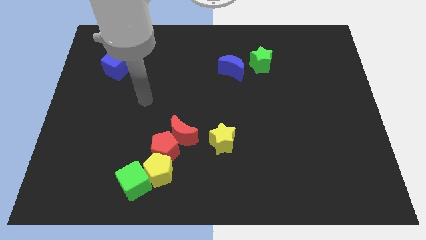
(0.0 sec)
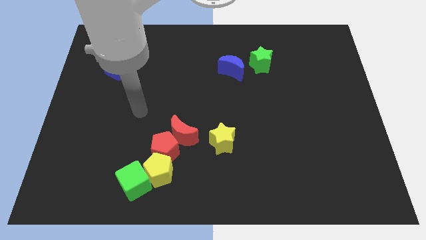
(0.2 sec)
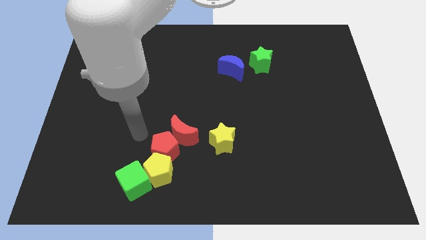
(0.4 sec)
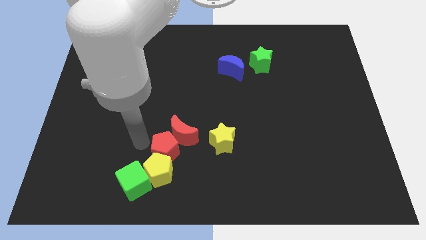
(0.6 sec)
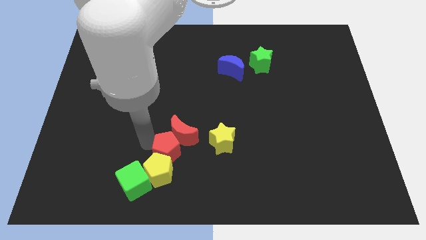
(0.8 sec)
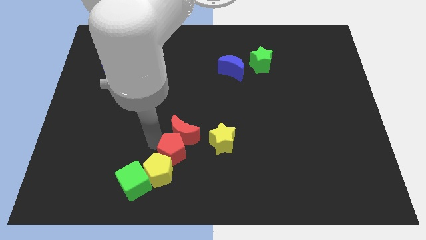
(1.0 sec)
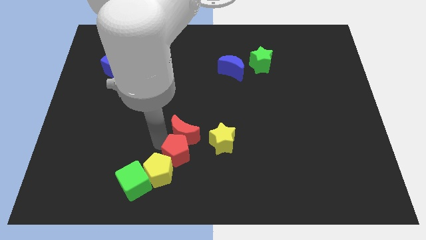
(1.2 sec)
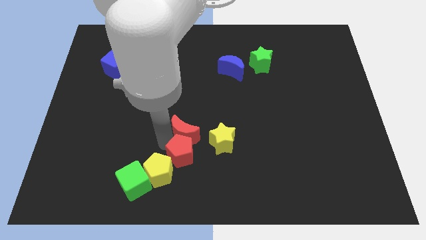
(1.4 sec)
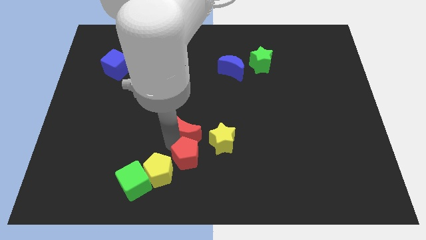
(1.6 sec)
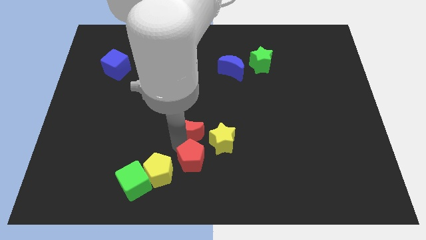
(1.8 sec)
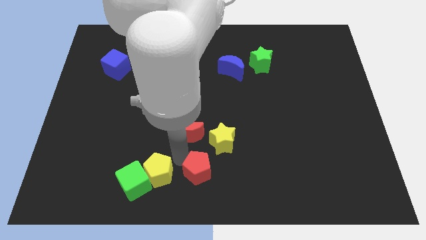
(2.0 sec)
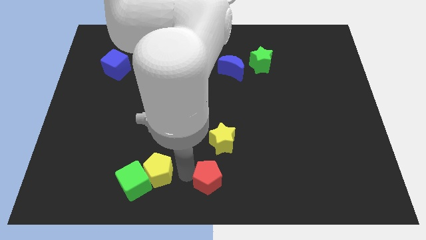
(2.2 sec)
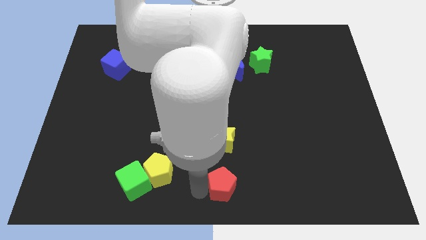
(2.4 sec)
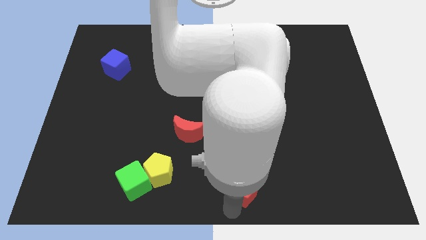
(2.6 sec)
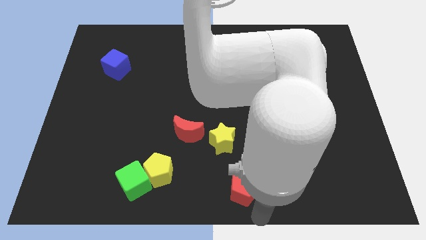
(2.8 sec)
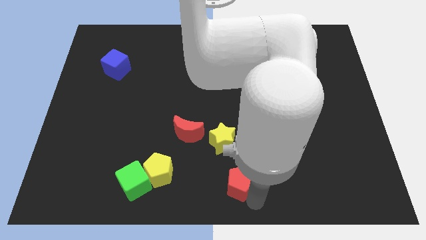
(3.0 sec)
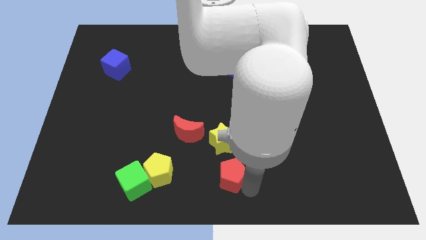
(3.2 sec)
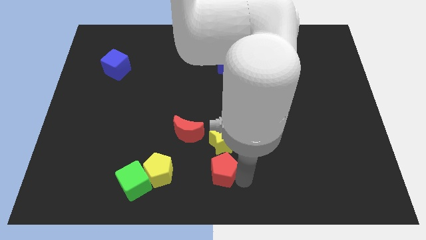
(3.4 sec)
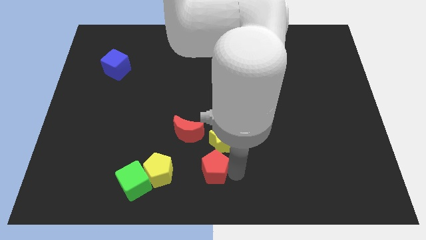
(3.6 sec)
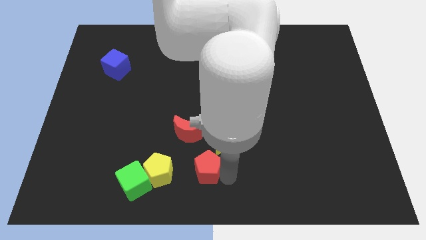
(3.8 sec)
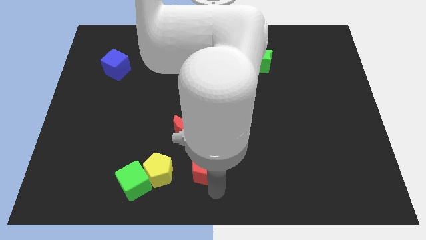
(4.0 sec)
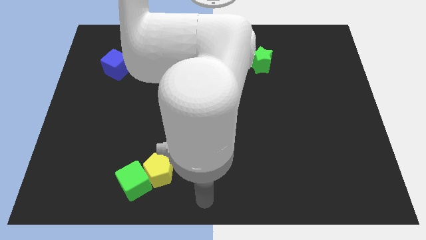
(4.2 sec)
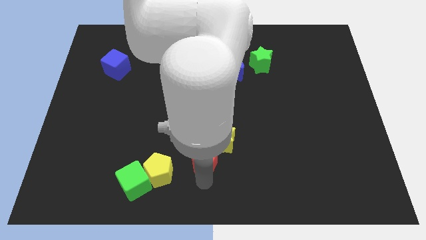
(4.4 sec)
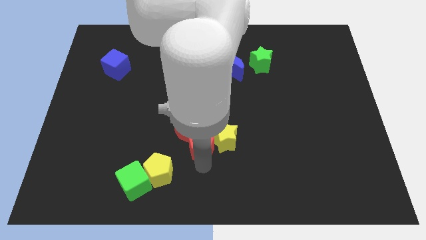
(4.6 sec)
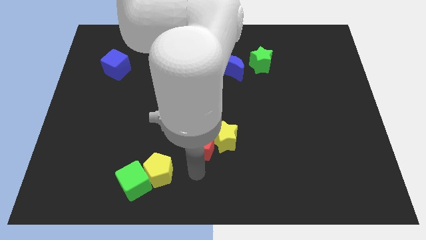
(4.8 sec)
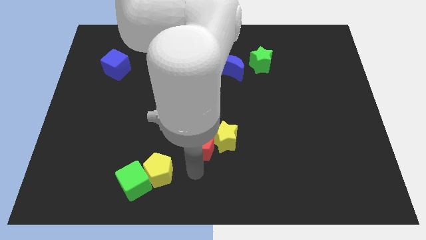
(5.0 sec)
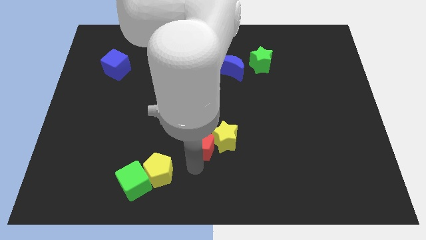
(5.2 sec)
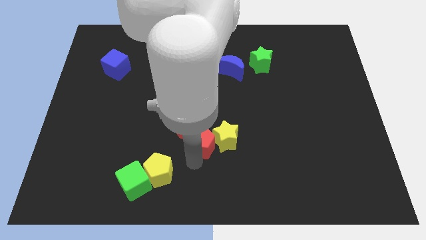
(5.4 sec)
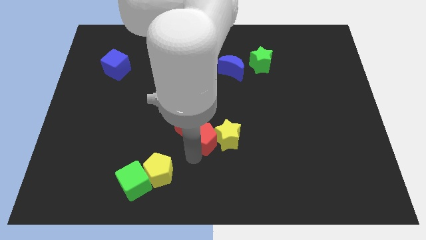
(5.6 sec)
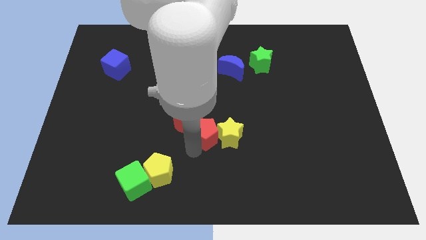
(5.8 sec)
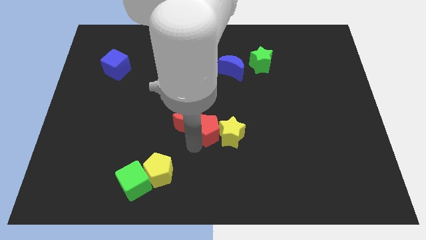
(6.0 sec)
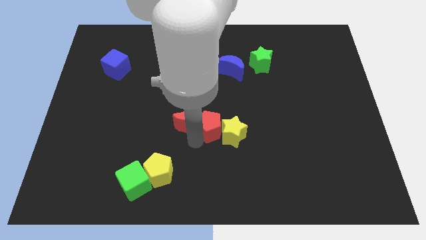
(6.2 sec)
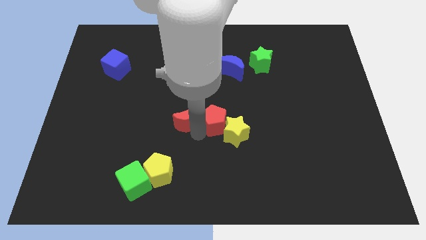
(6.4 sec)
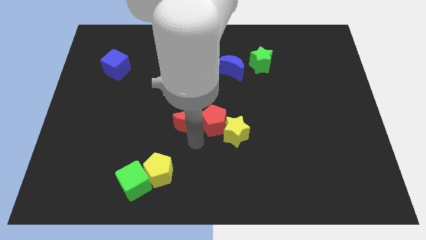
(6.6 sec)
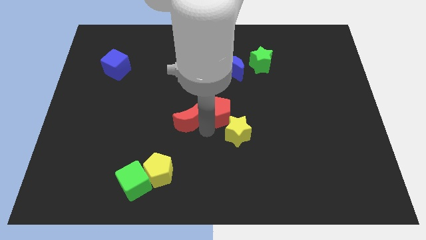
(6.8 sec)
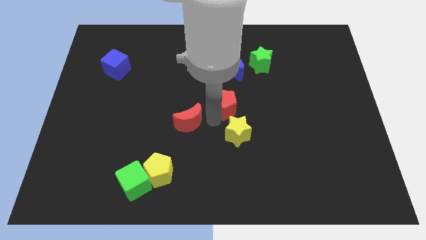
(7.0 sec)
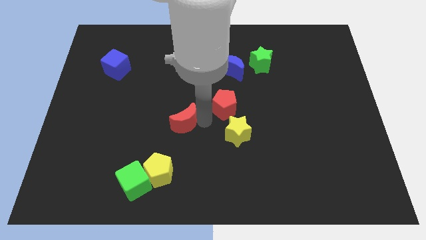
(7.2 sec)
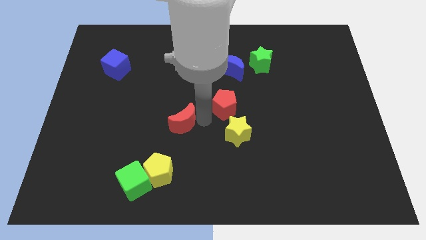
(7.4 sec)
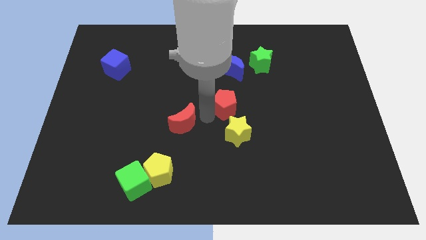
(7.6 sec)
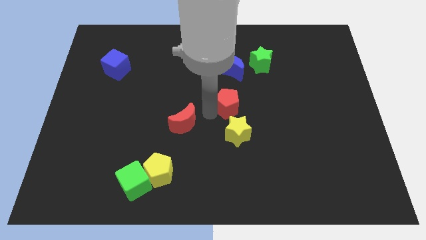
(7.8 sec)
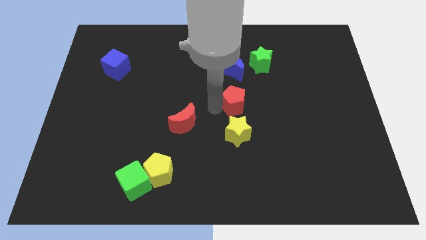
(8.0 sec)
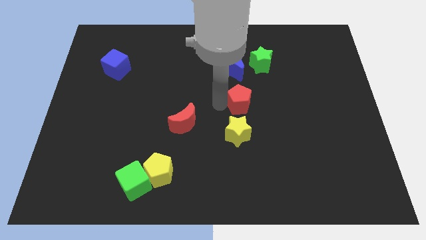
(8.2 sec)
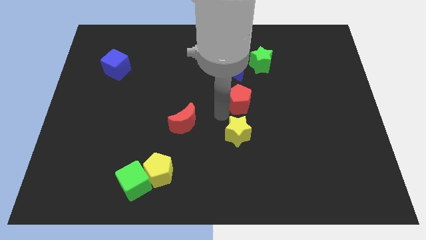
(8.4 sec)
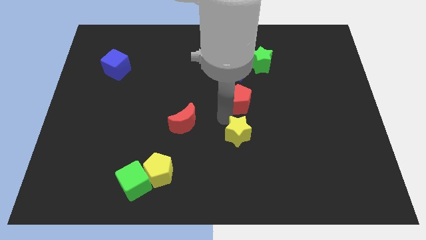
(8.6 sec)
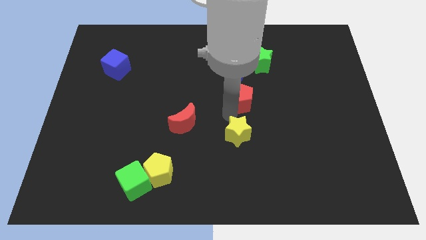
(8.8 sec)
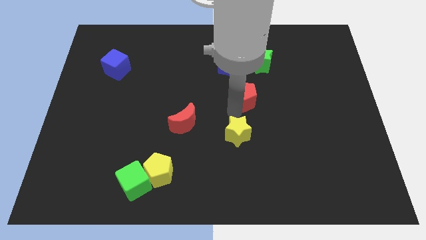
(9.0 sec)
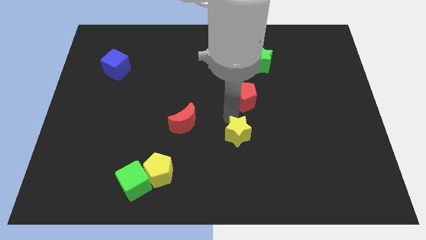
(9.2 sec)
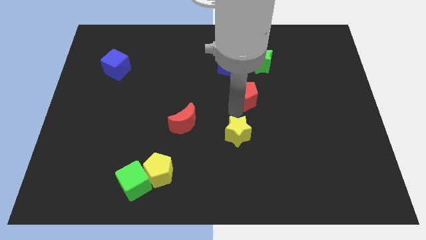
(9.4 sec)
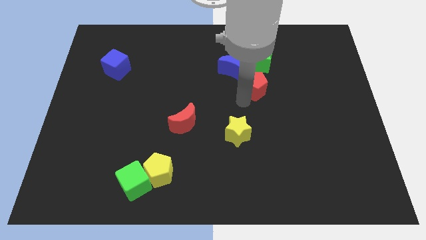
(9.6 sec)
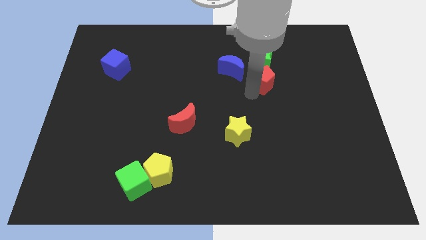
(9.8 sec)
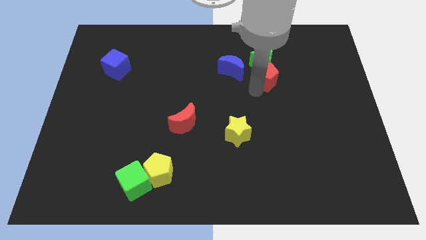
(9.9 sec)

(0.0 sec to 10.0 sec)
slide the red pentagon close to the green star

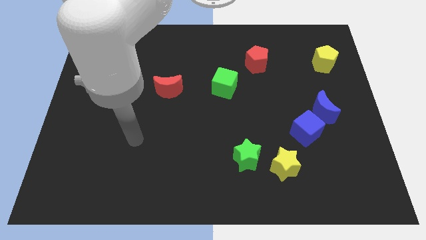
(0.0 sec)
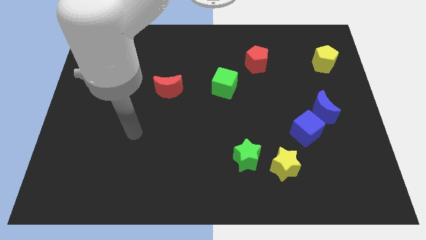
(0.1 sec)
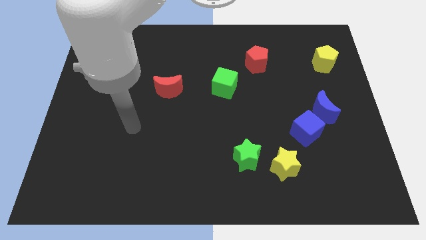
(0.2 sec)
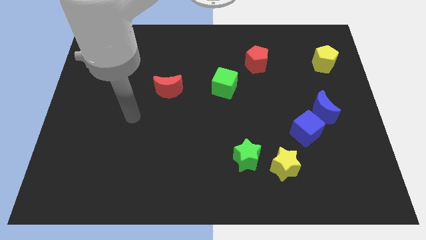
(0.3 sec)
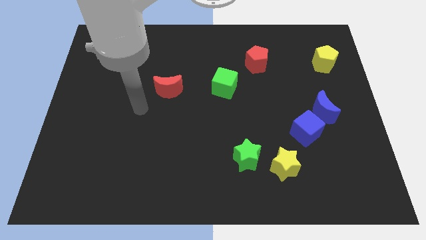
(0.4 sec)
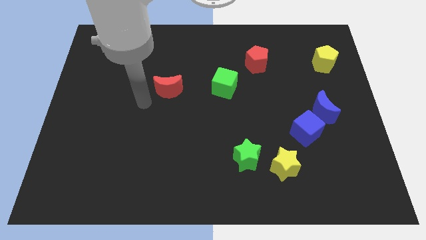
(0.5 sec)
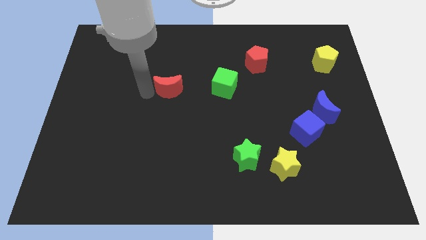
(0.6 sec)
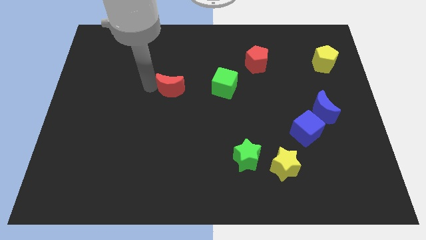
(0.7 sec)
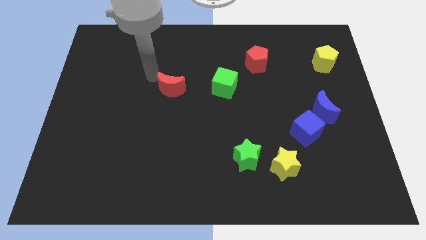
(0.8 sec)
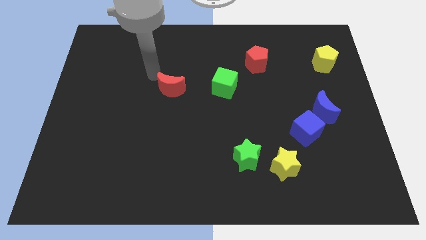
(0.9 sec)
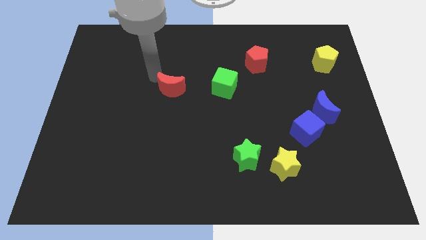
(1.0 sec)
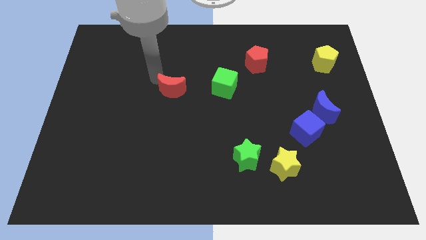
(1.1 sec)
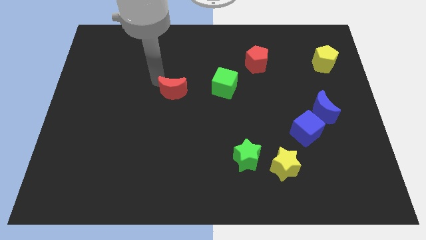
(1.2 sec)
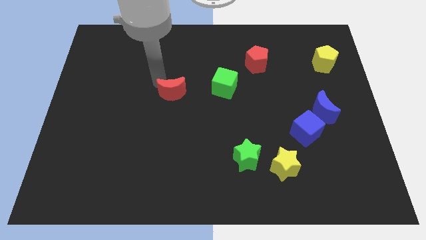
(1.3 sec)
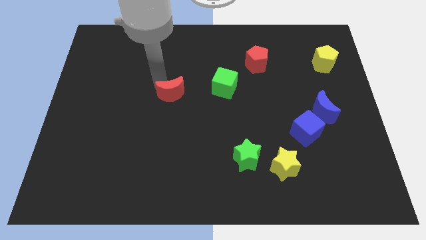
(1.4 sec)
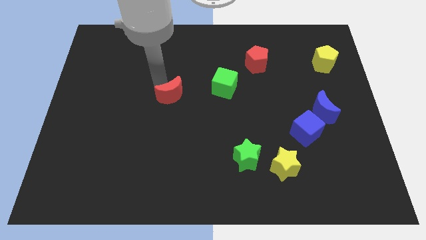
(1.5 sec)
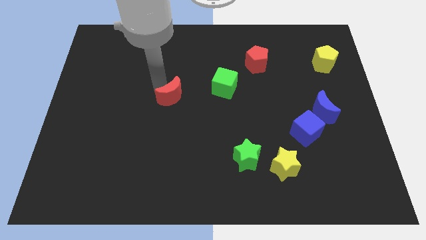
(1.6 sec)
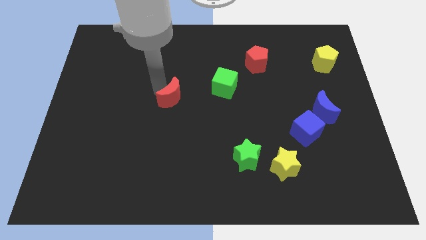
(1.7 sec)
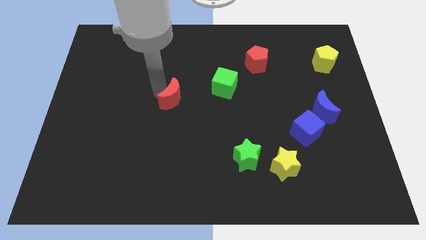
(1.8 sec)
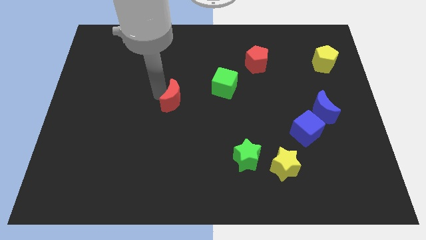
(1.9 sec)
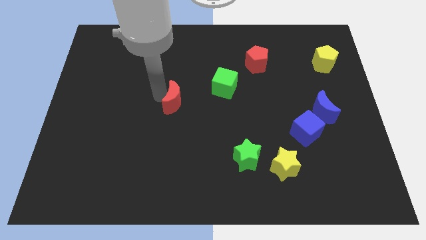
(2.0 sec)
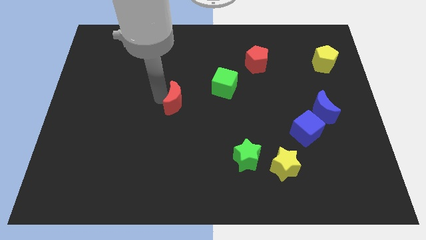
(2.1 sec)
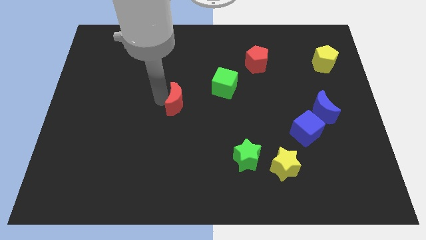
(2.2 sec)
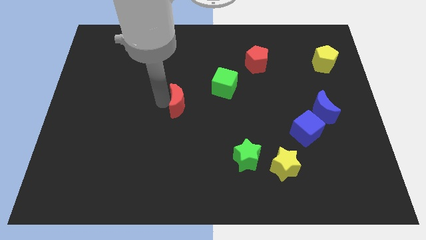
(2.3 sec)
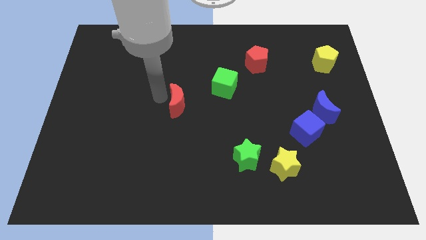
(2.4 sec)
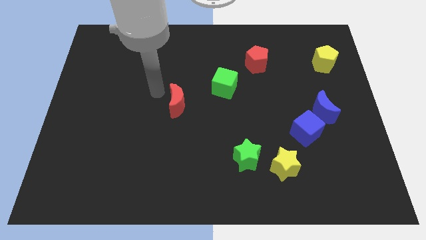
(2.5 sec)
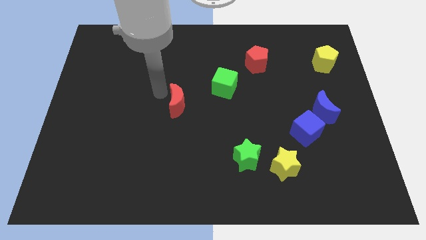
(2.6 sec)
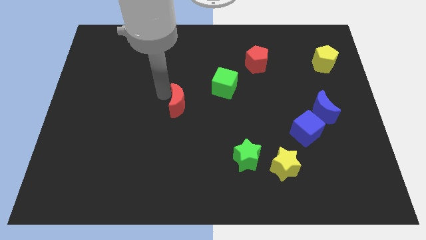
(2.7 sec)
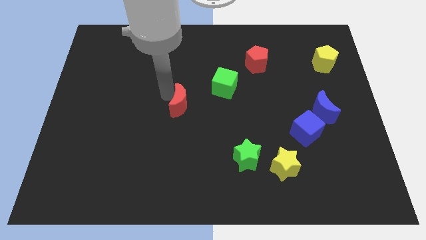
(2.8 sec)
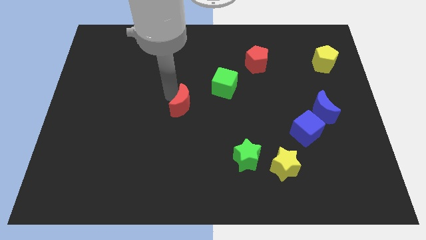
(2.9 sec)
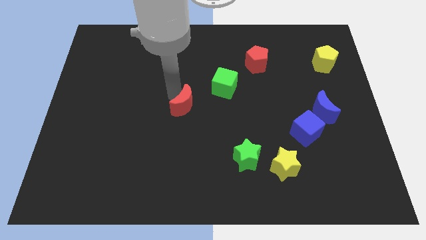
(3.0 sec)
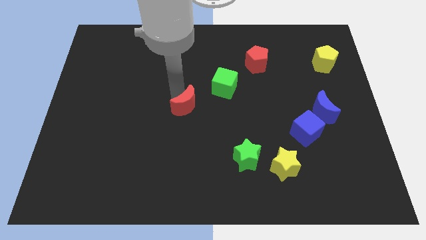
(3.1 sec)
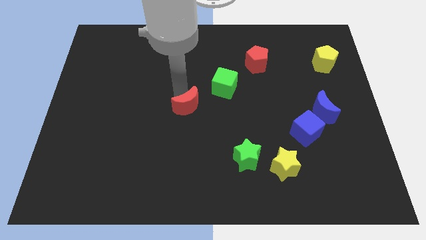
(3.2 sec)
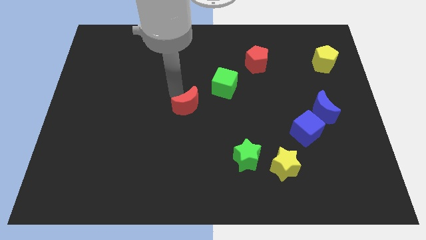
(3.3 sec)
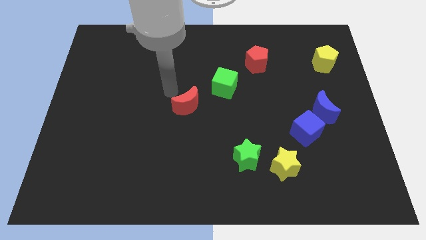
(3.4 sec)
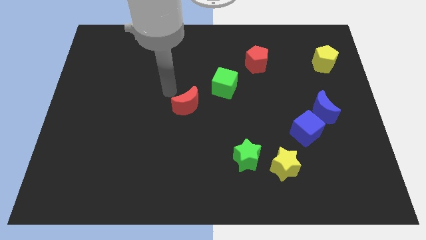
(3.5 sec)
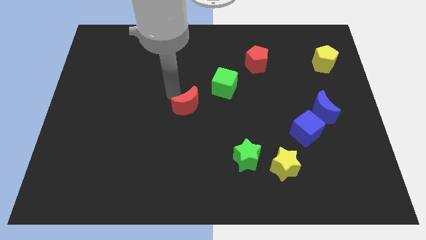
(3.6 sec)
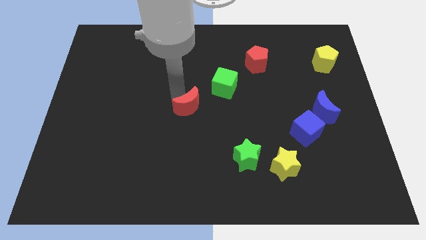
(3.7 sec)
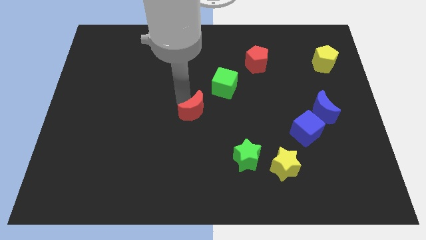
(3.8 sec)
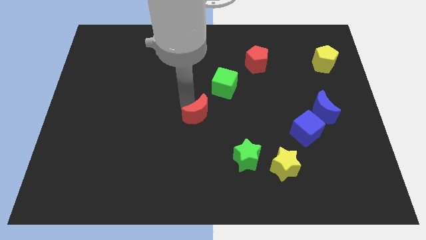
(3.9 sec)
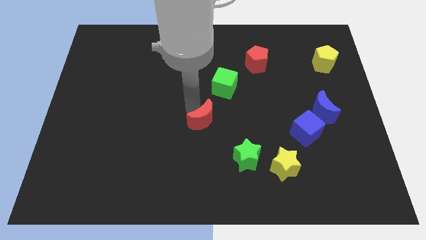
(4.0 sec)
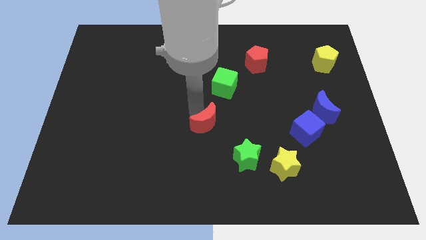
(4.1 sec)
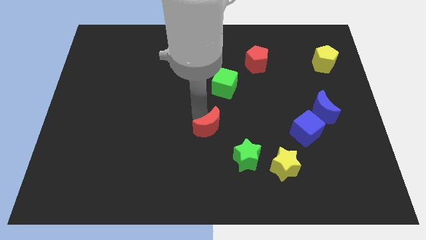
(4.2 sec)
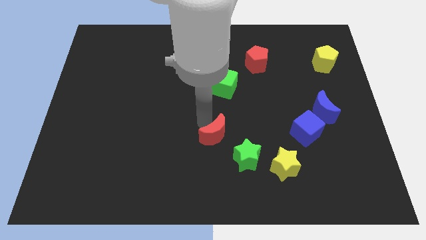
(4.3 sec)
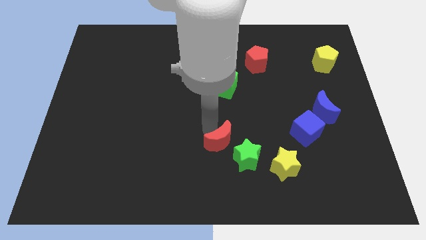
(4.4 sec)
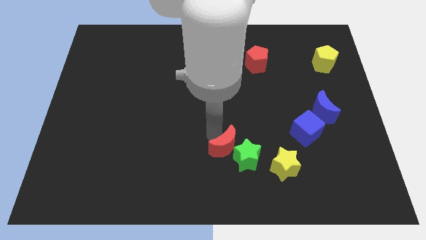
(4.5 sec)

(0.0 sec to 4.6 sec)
move the red moon to the green star
